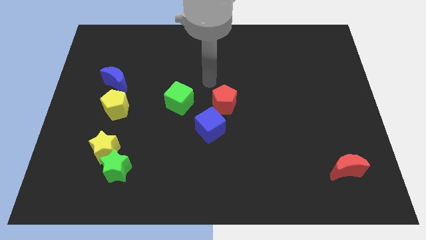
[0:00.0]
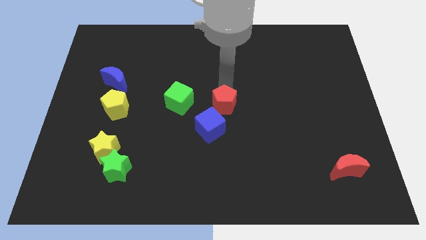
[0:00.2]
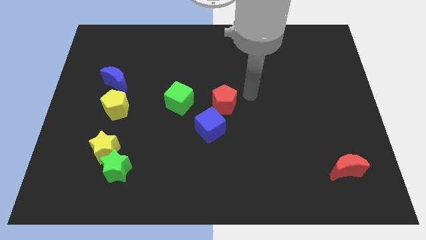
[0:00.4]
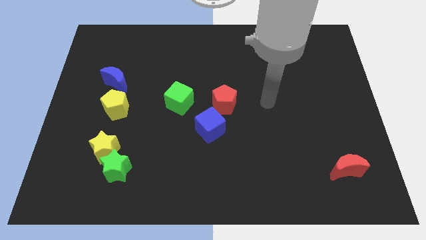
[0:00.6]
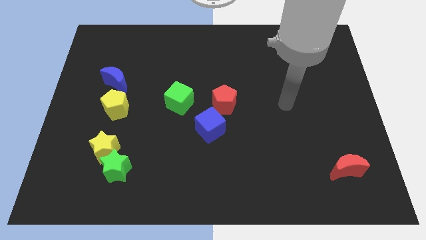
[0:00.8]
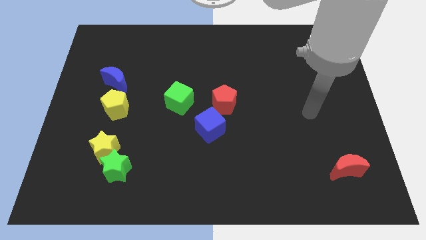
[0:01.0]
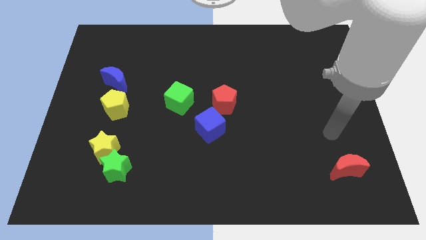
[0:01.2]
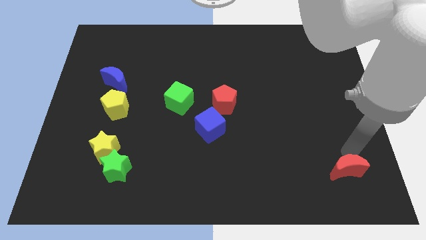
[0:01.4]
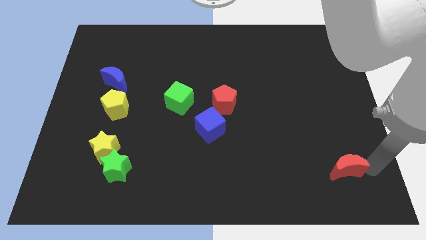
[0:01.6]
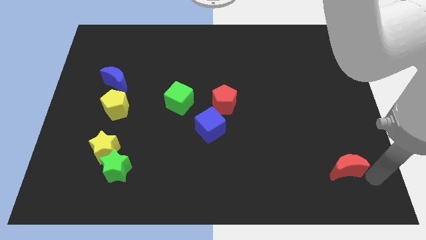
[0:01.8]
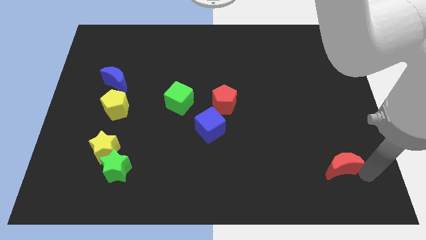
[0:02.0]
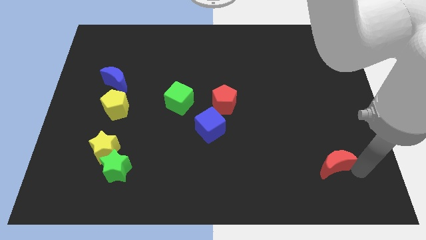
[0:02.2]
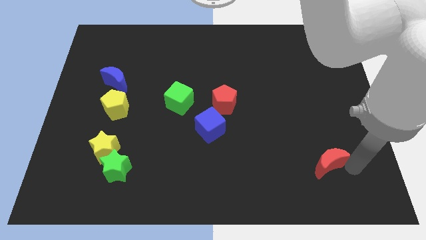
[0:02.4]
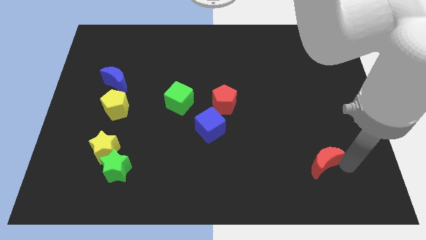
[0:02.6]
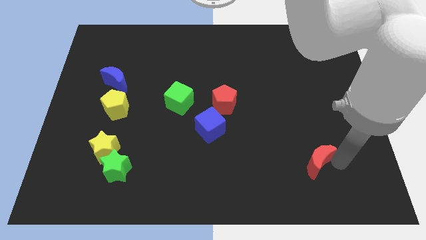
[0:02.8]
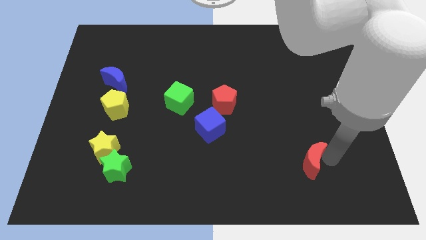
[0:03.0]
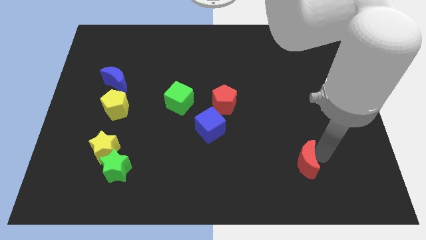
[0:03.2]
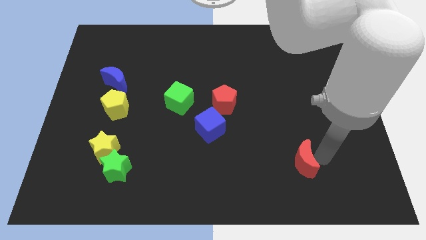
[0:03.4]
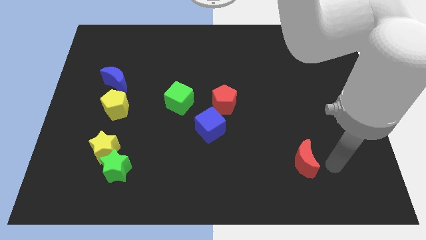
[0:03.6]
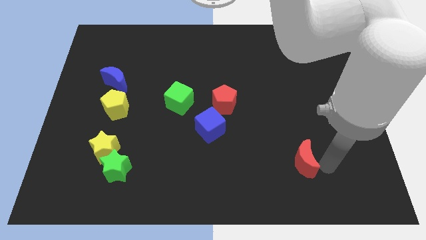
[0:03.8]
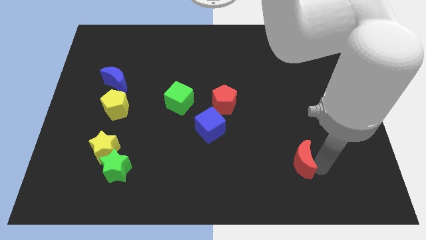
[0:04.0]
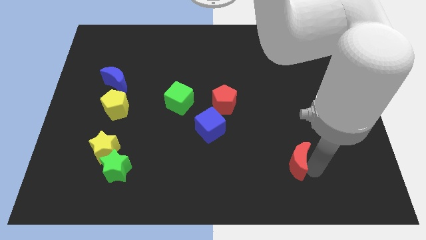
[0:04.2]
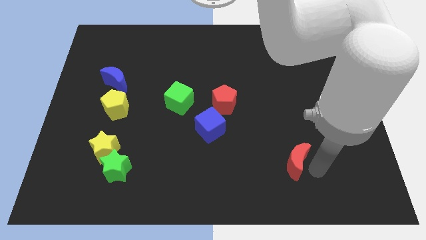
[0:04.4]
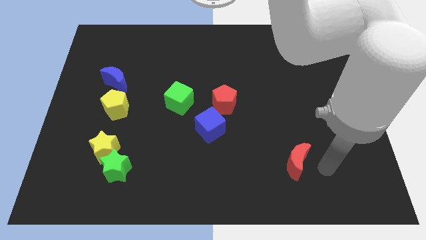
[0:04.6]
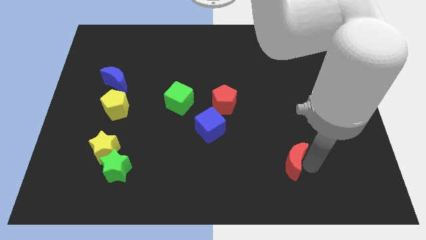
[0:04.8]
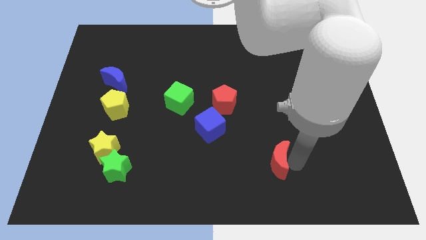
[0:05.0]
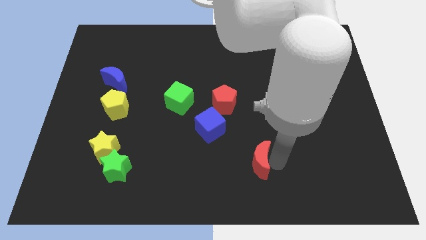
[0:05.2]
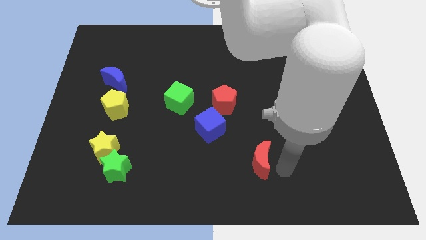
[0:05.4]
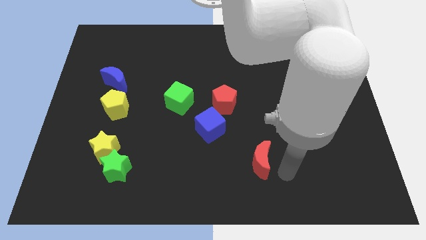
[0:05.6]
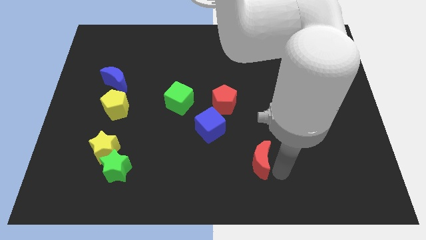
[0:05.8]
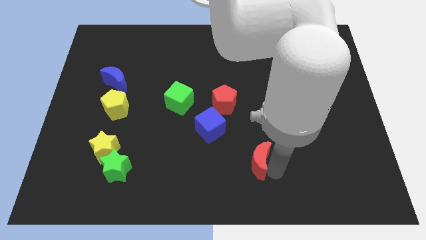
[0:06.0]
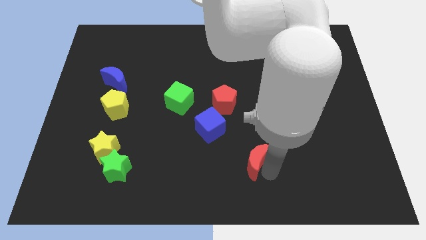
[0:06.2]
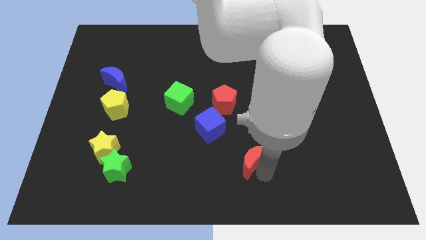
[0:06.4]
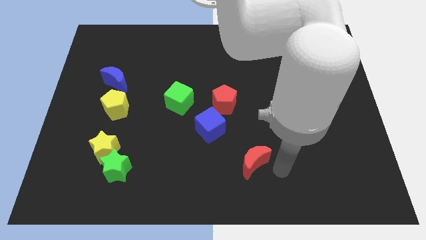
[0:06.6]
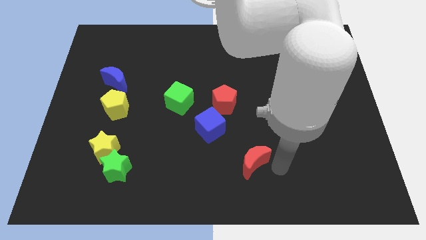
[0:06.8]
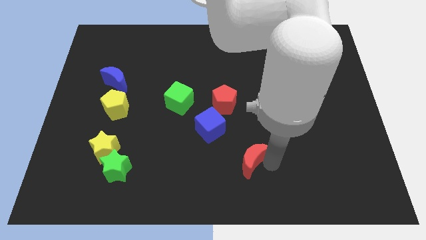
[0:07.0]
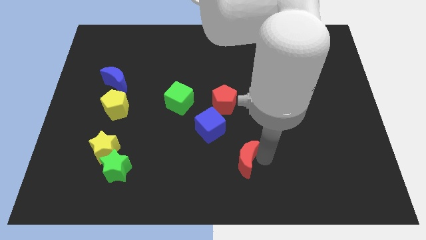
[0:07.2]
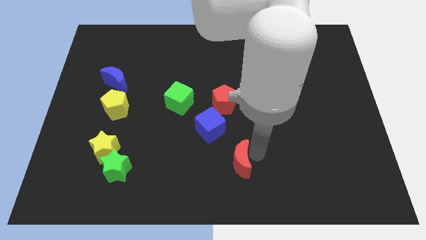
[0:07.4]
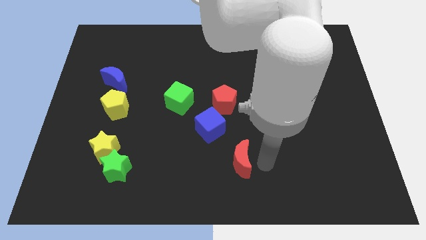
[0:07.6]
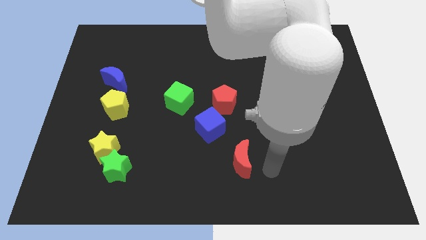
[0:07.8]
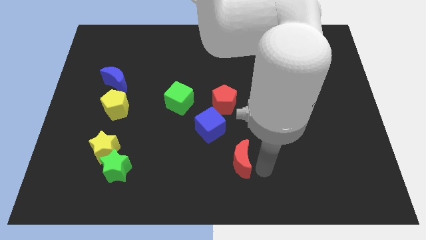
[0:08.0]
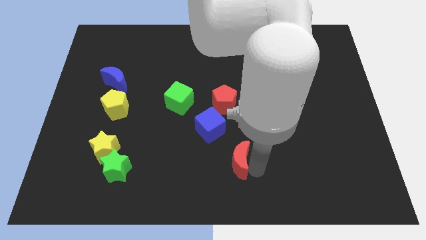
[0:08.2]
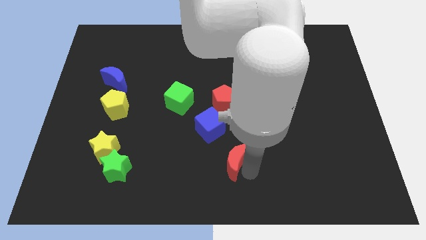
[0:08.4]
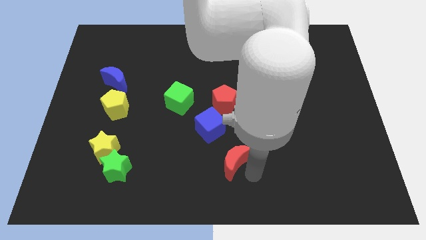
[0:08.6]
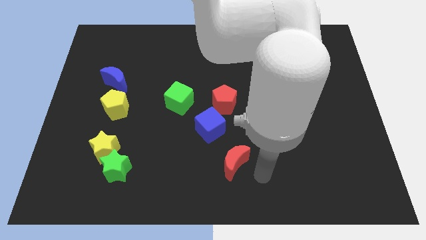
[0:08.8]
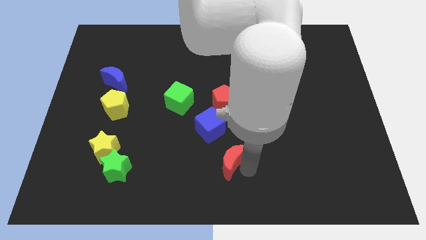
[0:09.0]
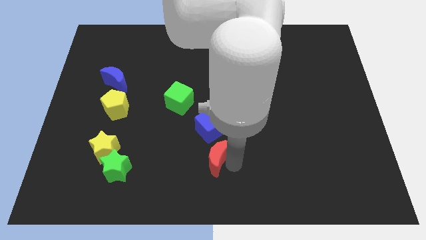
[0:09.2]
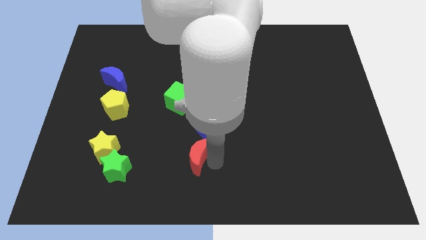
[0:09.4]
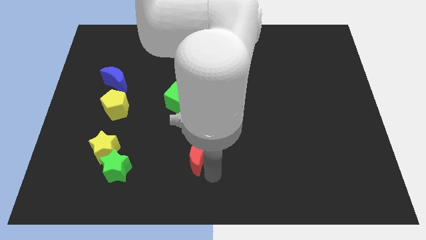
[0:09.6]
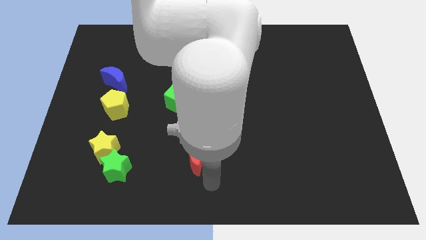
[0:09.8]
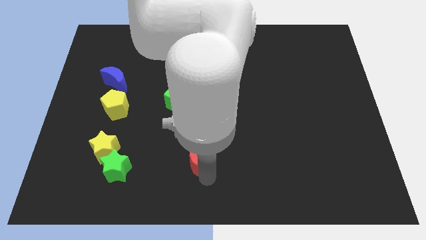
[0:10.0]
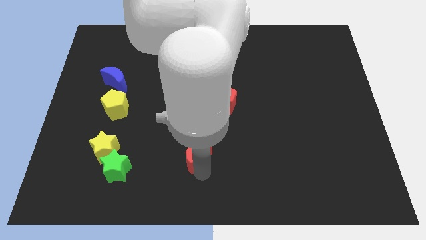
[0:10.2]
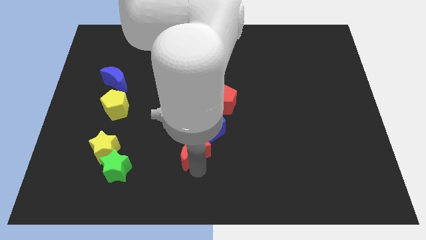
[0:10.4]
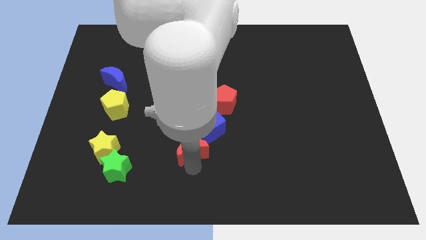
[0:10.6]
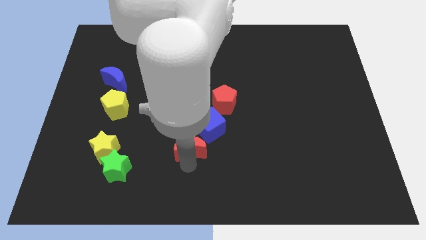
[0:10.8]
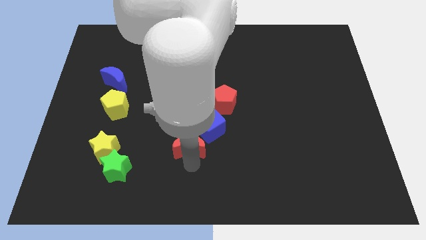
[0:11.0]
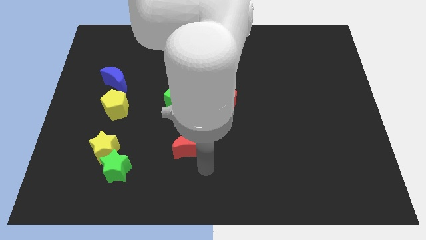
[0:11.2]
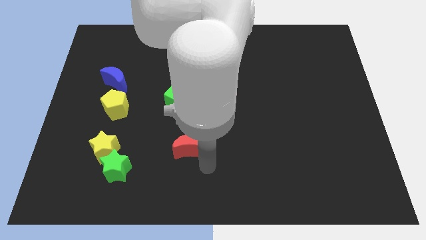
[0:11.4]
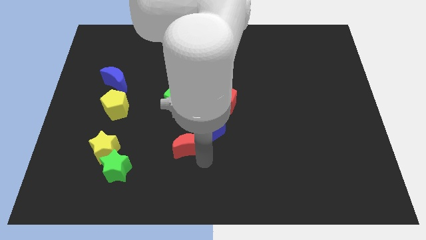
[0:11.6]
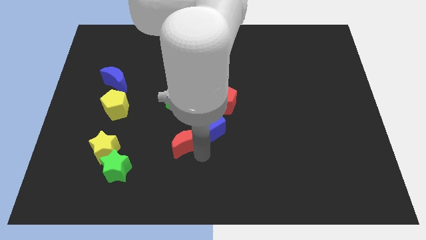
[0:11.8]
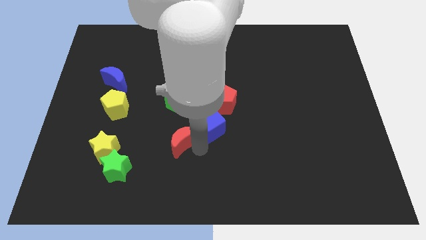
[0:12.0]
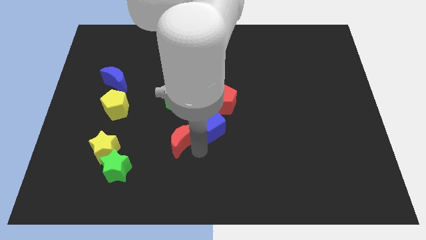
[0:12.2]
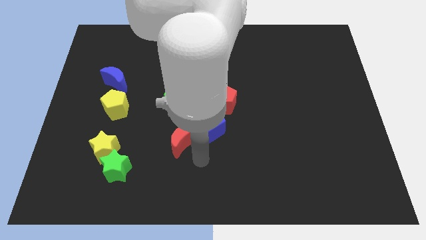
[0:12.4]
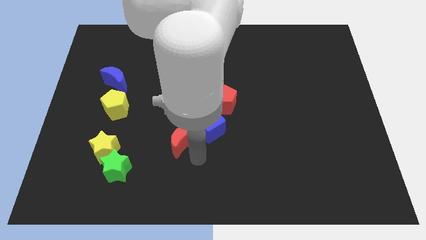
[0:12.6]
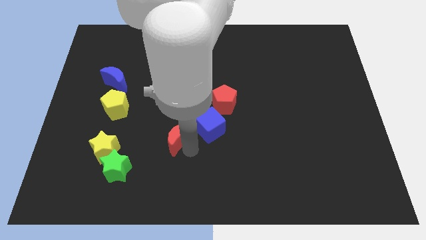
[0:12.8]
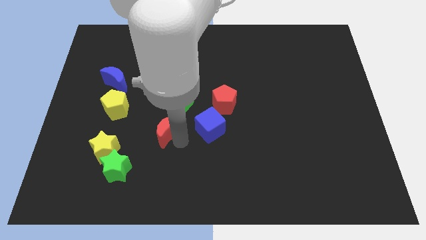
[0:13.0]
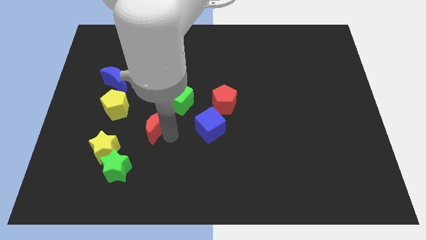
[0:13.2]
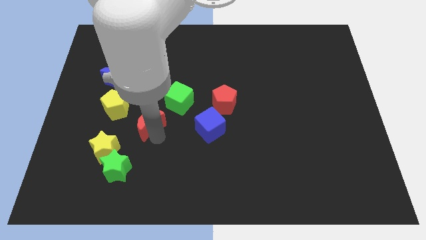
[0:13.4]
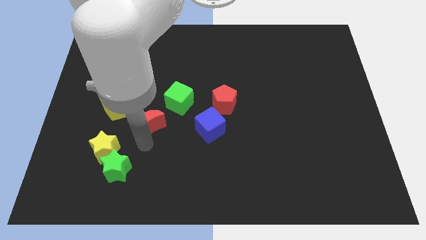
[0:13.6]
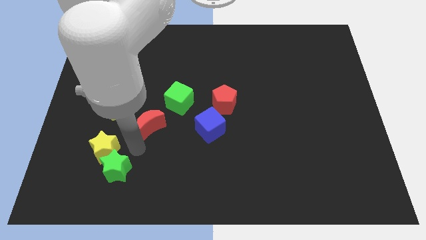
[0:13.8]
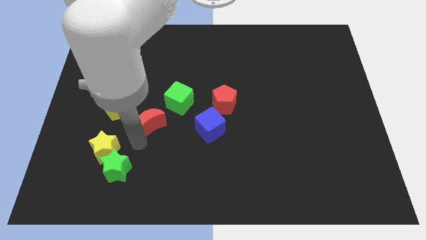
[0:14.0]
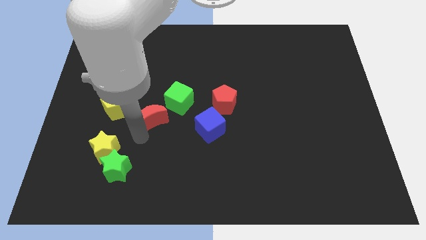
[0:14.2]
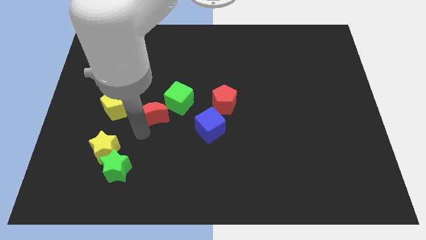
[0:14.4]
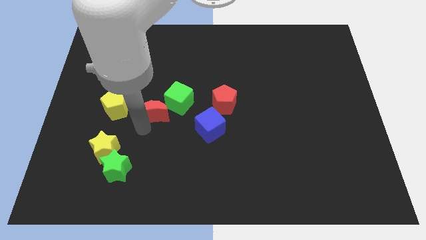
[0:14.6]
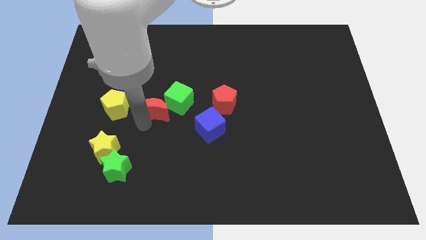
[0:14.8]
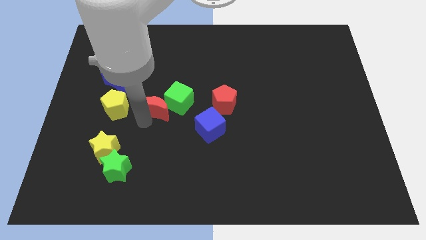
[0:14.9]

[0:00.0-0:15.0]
push the red moon just left of the red pentagon
